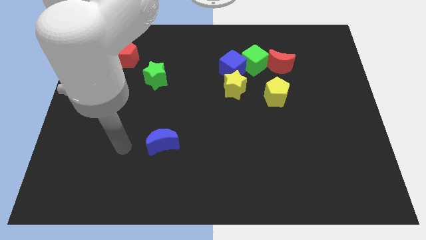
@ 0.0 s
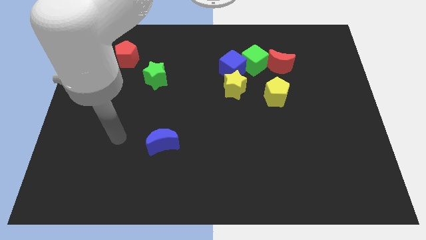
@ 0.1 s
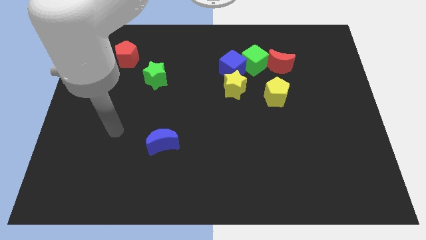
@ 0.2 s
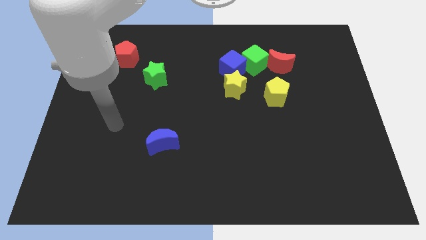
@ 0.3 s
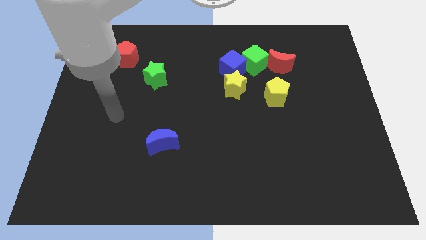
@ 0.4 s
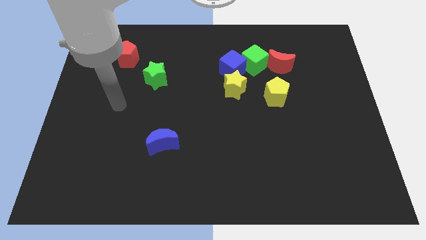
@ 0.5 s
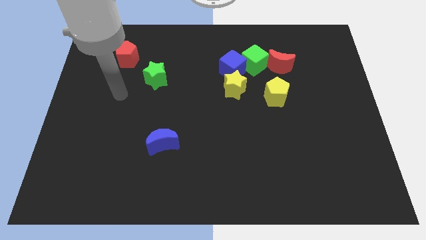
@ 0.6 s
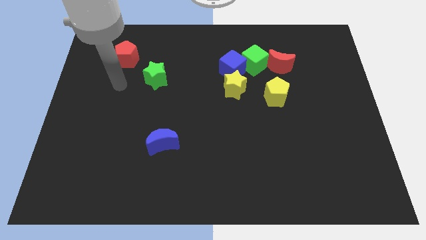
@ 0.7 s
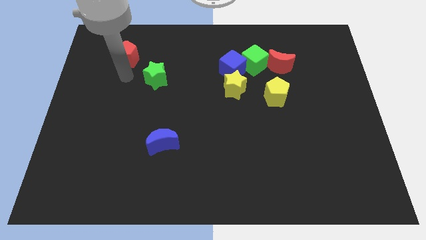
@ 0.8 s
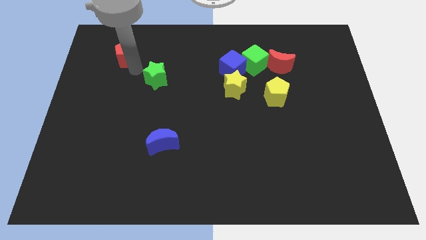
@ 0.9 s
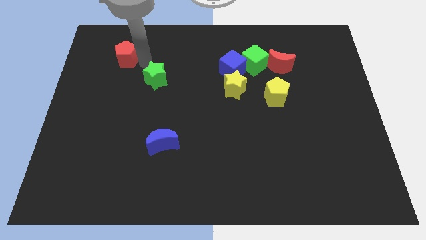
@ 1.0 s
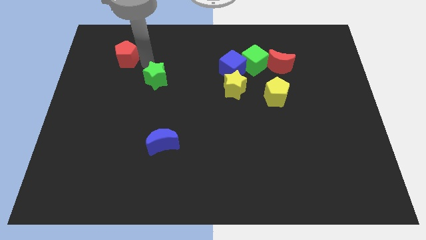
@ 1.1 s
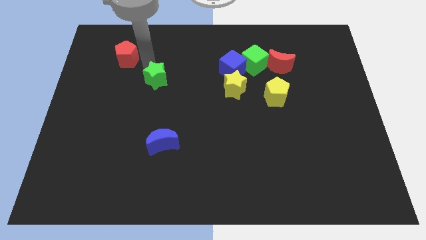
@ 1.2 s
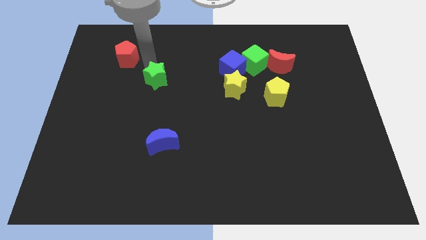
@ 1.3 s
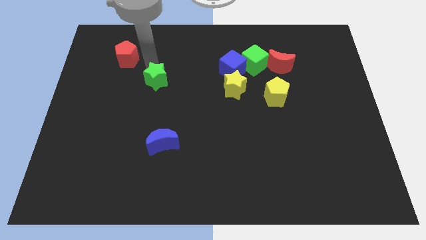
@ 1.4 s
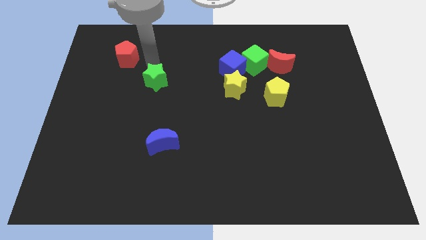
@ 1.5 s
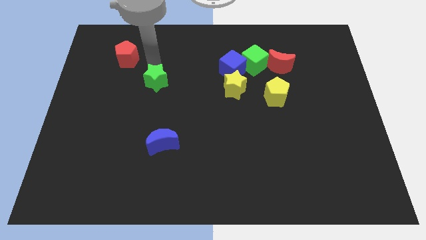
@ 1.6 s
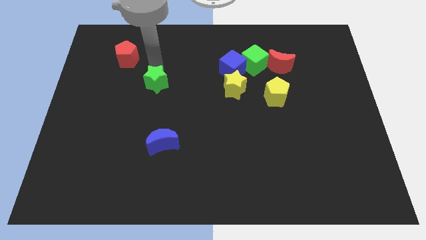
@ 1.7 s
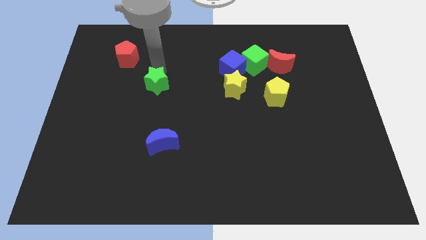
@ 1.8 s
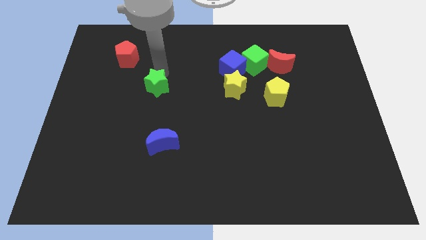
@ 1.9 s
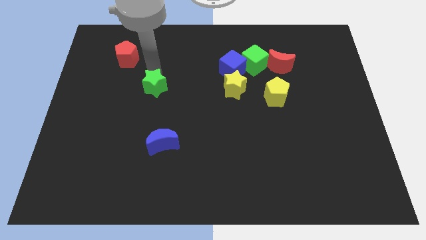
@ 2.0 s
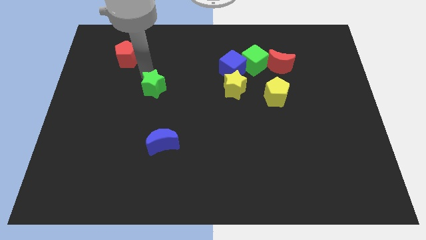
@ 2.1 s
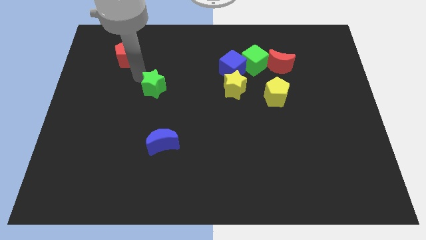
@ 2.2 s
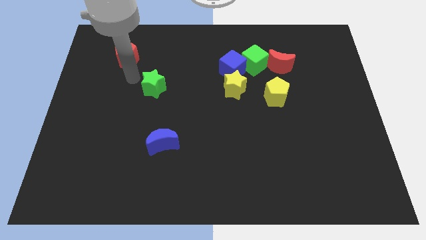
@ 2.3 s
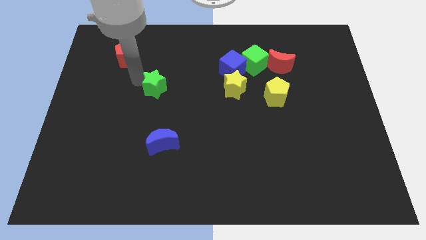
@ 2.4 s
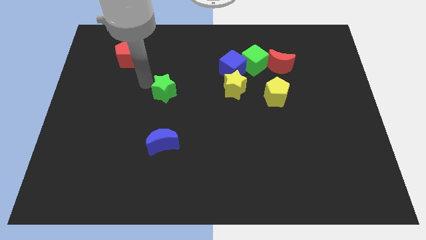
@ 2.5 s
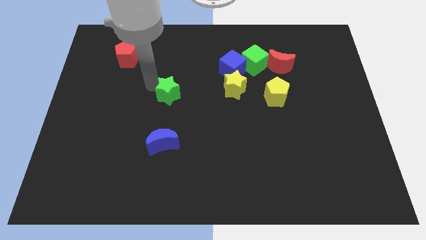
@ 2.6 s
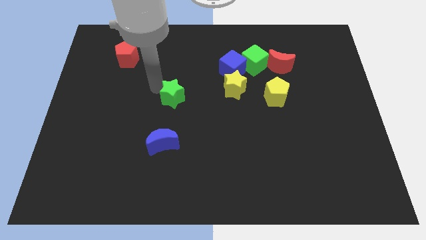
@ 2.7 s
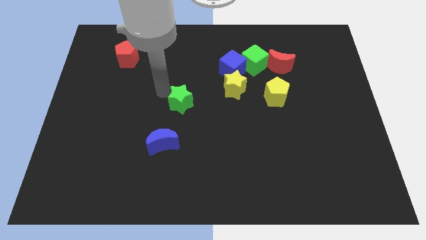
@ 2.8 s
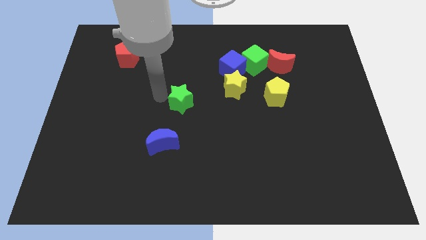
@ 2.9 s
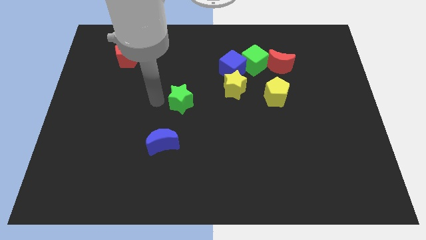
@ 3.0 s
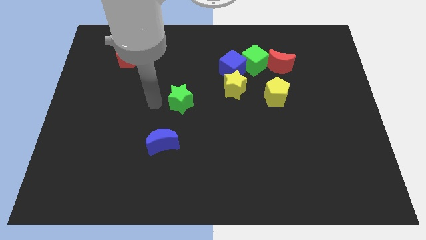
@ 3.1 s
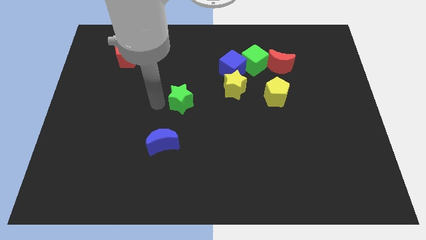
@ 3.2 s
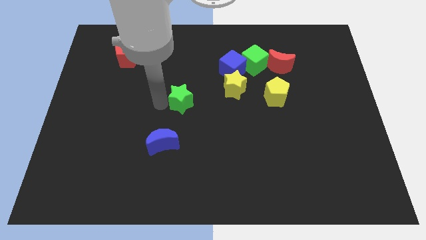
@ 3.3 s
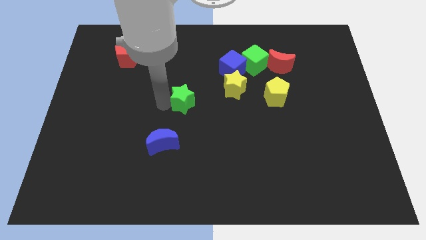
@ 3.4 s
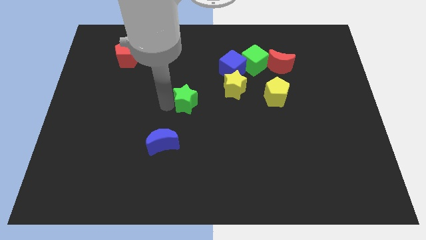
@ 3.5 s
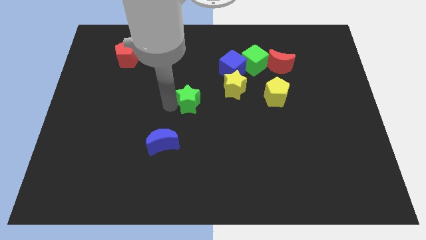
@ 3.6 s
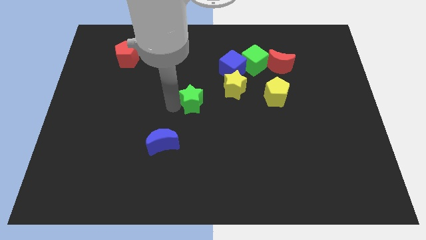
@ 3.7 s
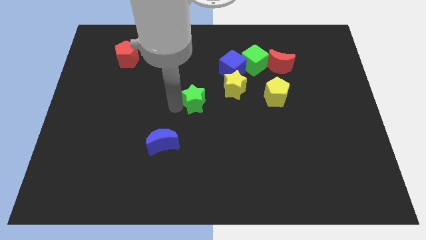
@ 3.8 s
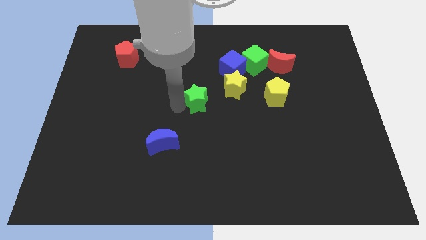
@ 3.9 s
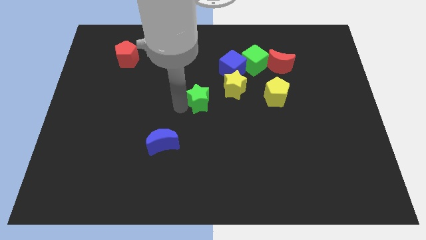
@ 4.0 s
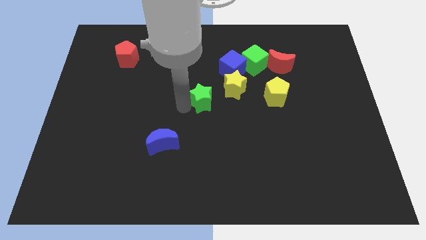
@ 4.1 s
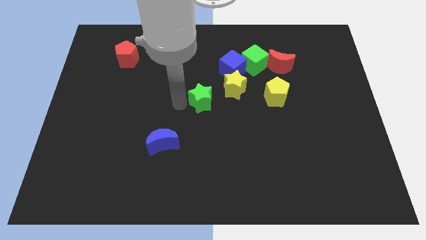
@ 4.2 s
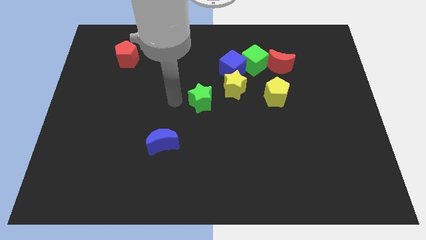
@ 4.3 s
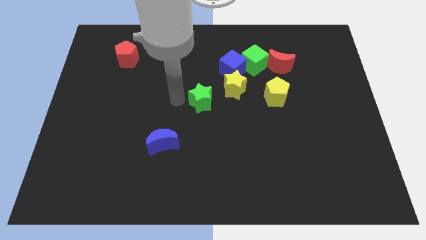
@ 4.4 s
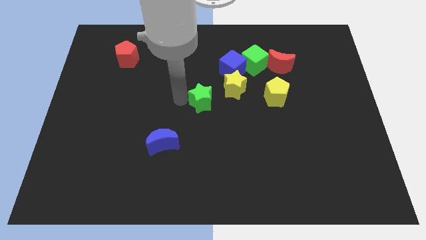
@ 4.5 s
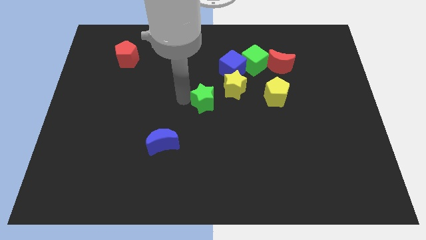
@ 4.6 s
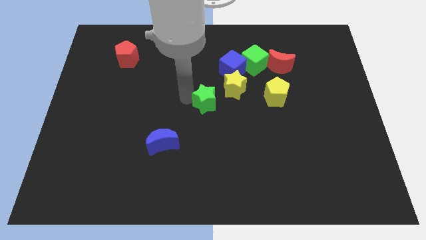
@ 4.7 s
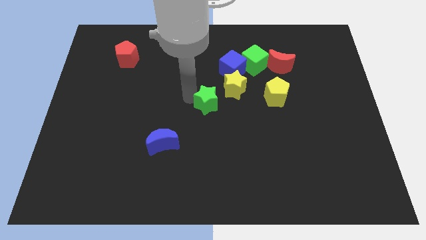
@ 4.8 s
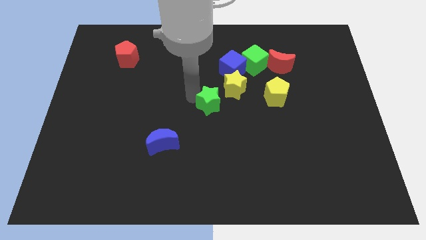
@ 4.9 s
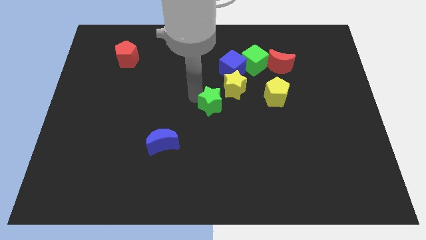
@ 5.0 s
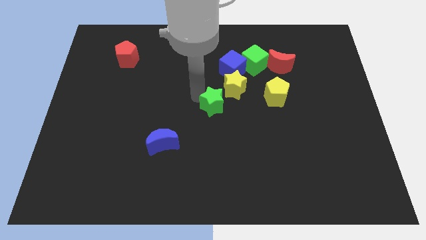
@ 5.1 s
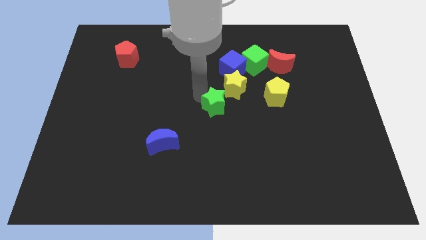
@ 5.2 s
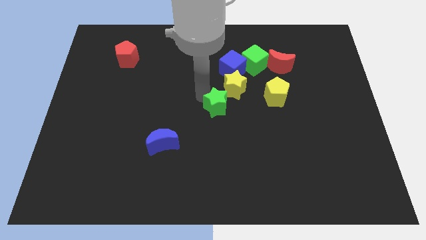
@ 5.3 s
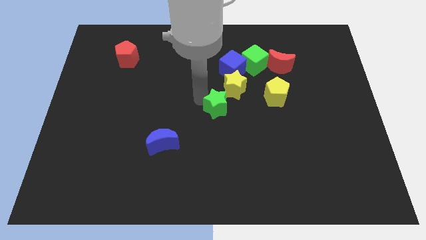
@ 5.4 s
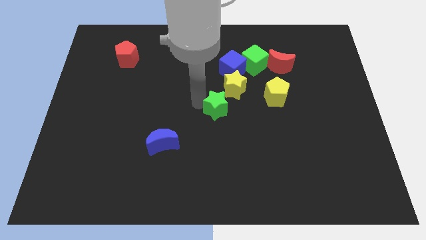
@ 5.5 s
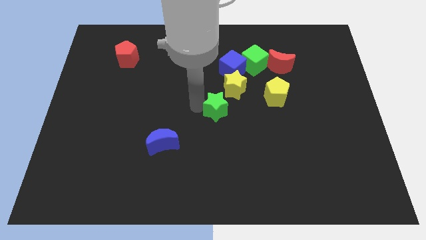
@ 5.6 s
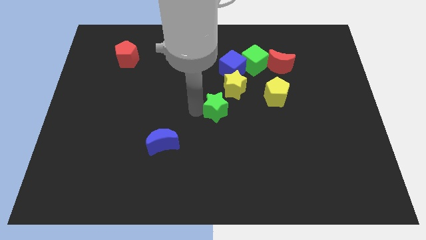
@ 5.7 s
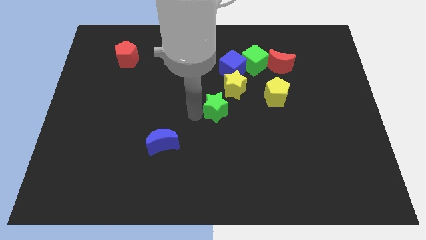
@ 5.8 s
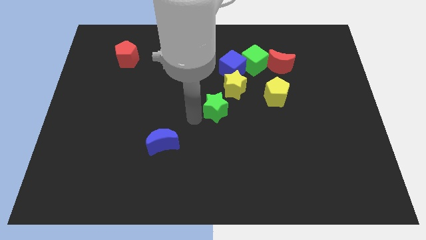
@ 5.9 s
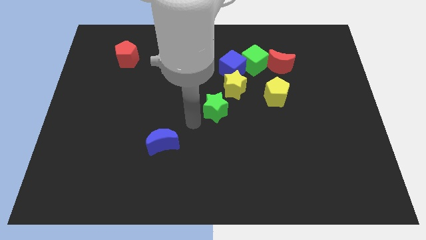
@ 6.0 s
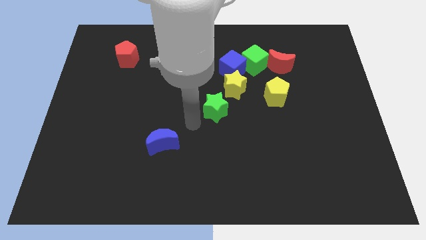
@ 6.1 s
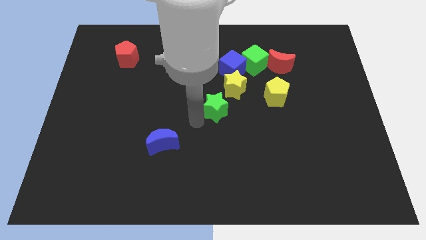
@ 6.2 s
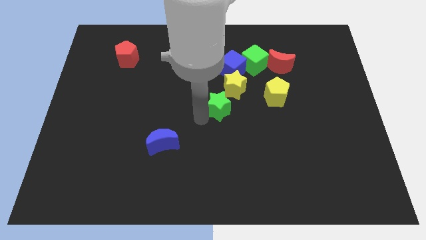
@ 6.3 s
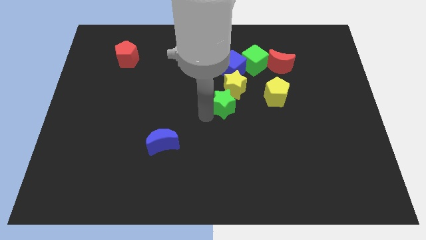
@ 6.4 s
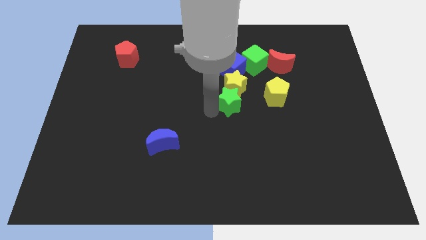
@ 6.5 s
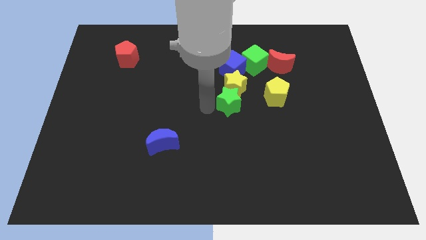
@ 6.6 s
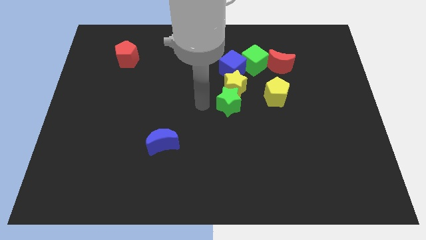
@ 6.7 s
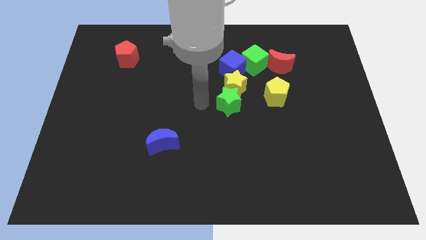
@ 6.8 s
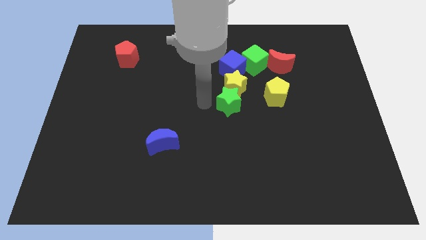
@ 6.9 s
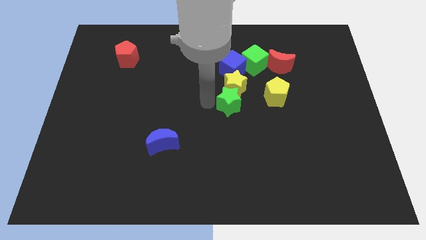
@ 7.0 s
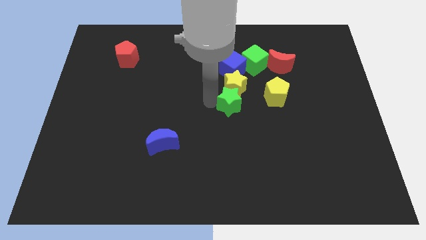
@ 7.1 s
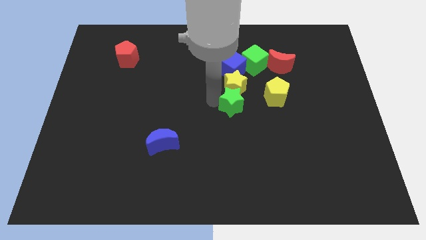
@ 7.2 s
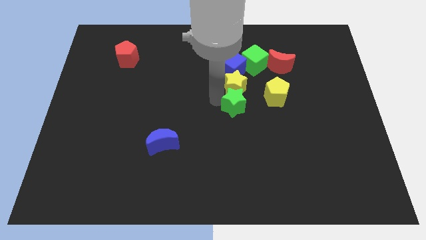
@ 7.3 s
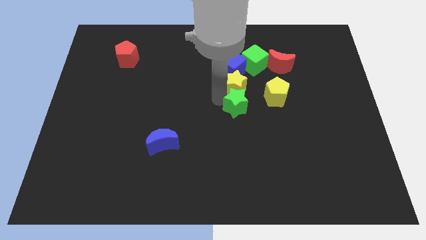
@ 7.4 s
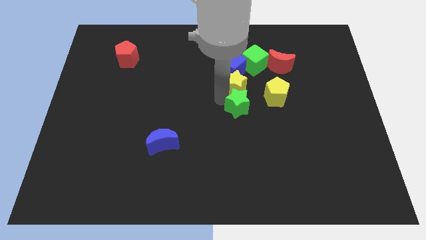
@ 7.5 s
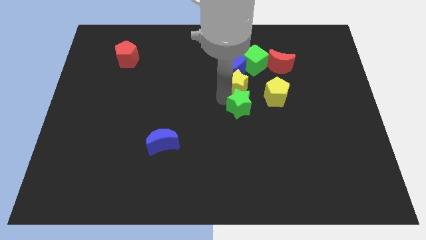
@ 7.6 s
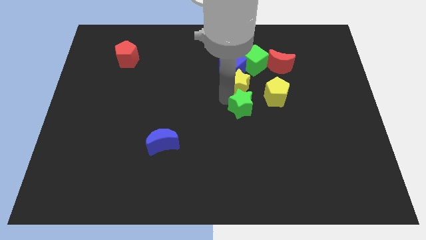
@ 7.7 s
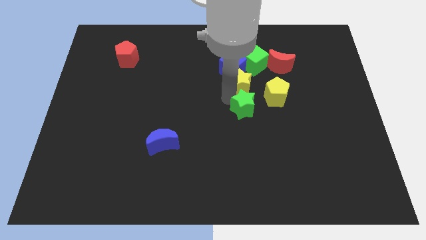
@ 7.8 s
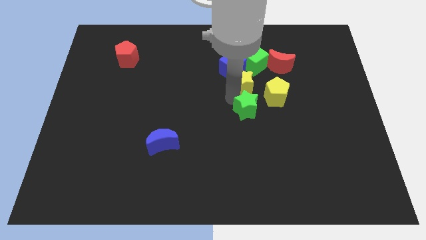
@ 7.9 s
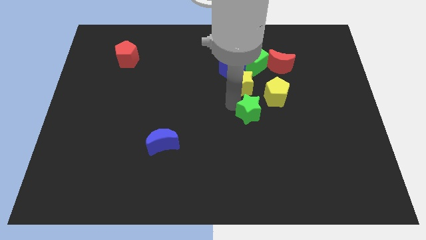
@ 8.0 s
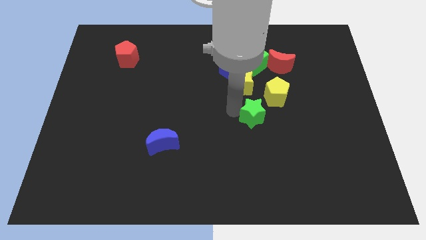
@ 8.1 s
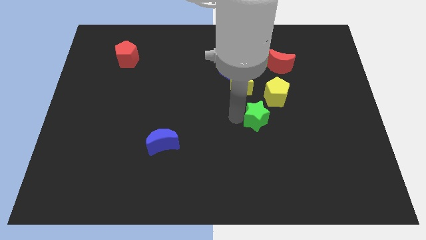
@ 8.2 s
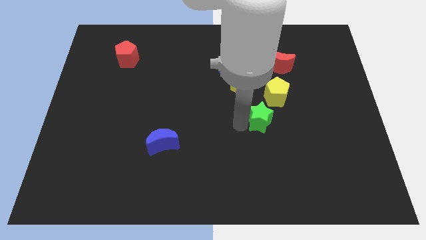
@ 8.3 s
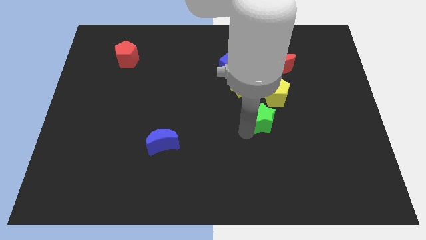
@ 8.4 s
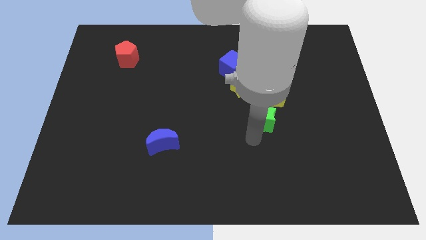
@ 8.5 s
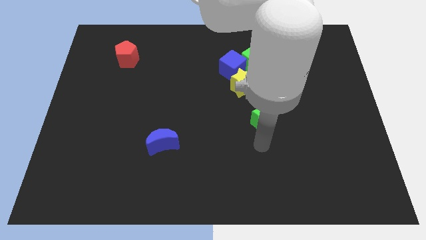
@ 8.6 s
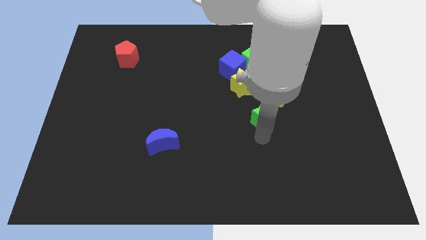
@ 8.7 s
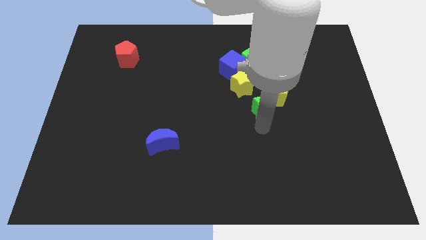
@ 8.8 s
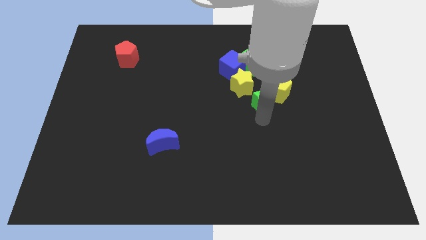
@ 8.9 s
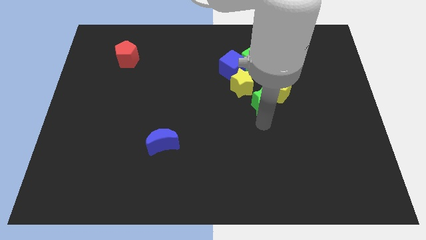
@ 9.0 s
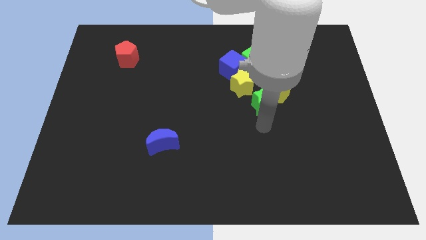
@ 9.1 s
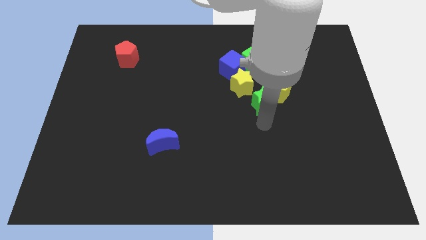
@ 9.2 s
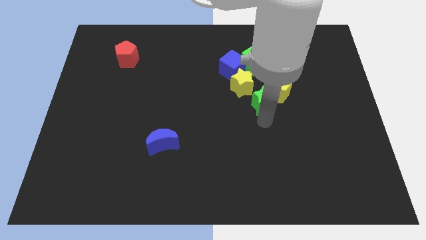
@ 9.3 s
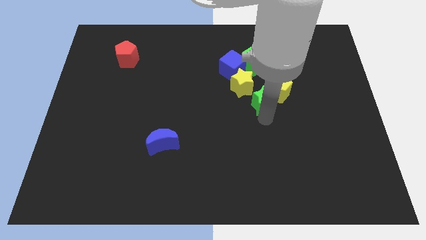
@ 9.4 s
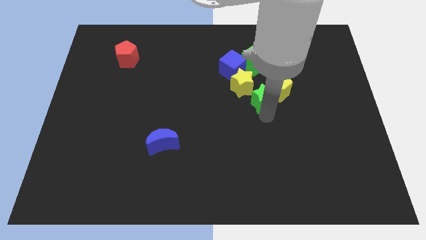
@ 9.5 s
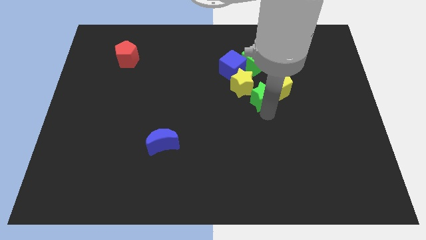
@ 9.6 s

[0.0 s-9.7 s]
put the green star right of the yellow star
